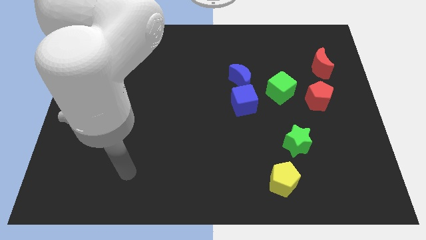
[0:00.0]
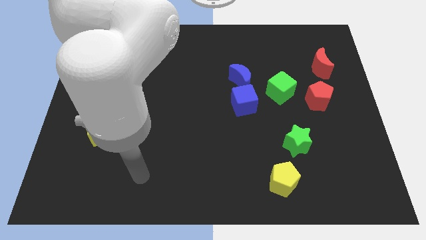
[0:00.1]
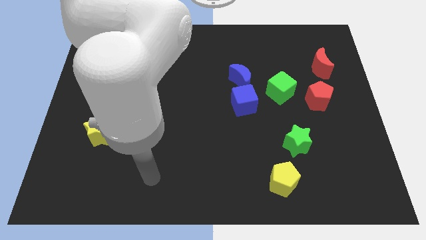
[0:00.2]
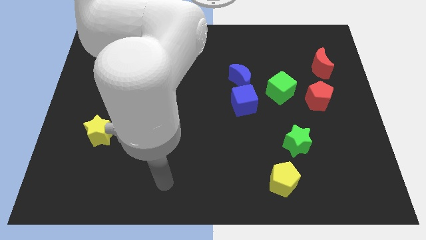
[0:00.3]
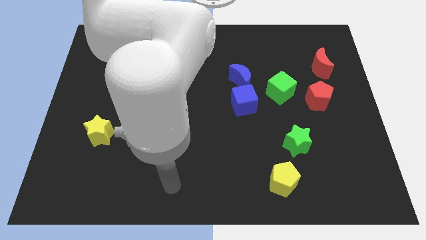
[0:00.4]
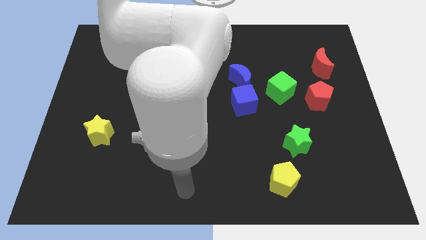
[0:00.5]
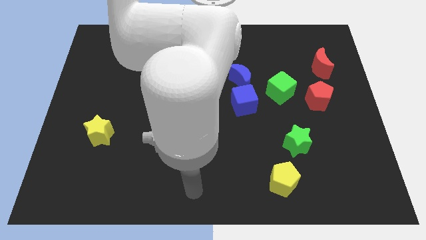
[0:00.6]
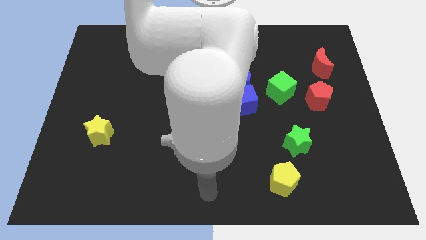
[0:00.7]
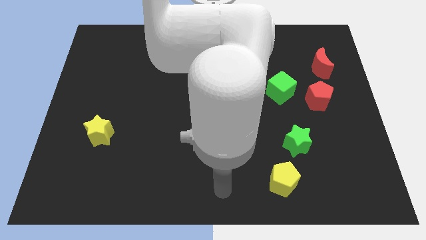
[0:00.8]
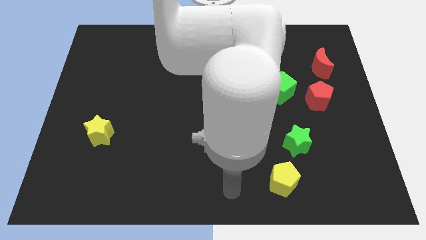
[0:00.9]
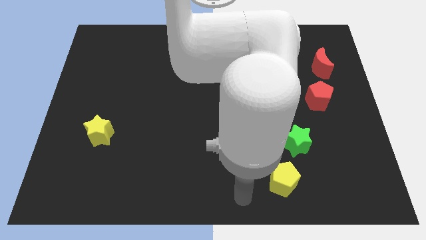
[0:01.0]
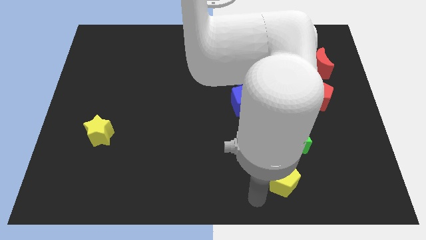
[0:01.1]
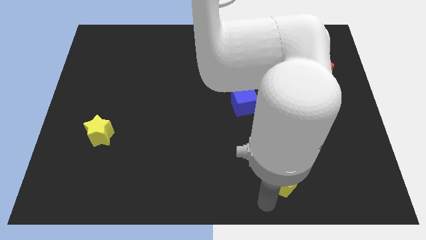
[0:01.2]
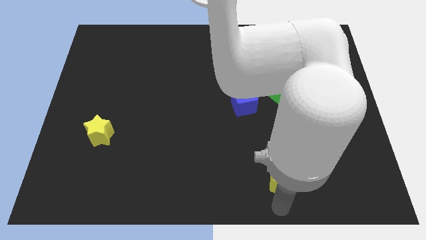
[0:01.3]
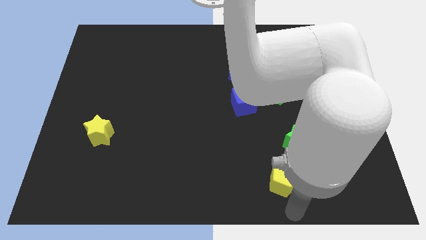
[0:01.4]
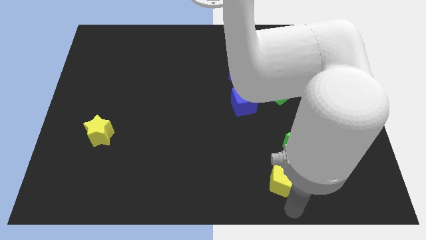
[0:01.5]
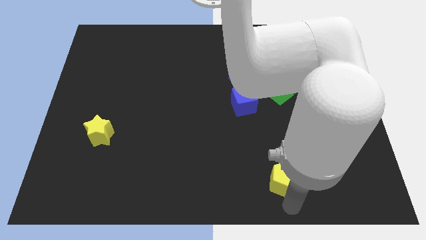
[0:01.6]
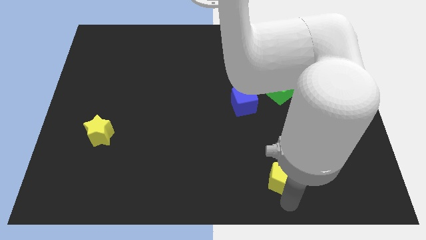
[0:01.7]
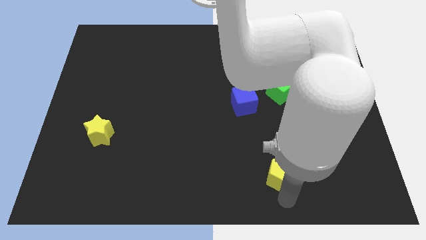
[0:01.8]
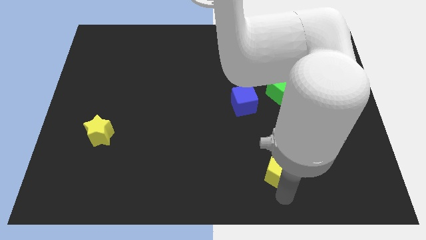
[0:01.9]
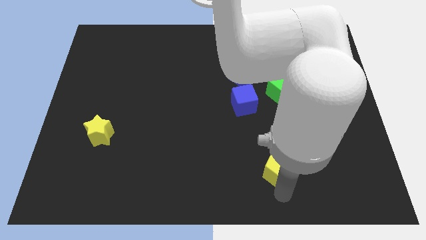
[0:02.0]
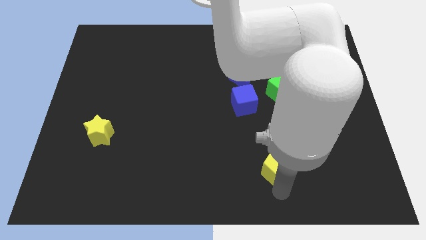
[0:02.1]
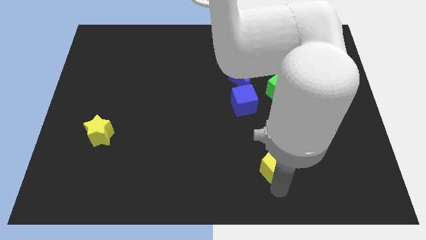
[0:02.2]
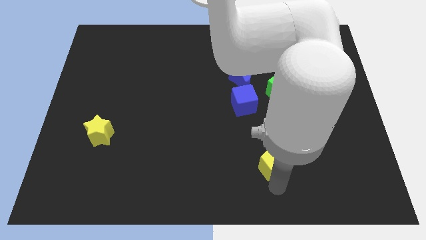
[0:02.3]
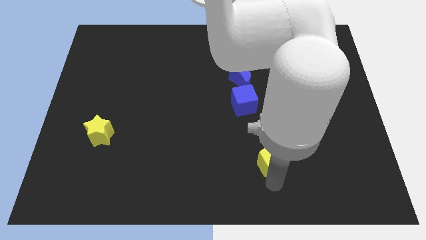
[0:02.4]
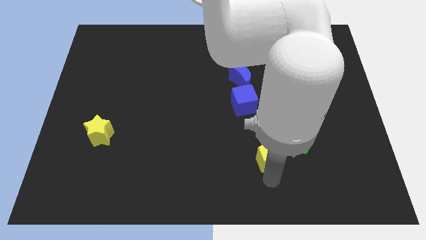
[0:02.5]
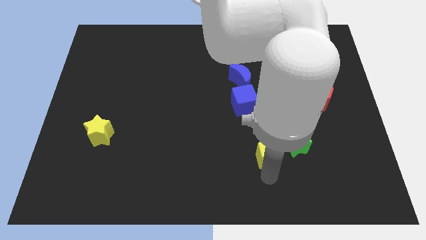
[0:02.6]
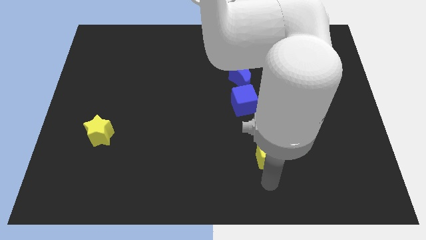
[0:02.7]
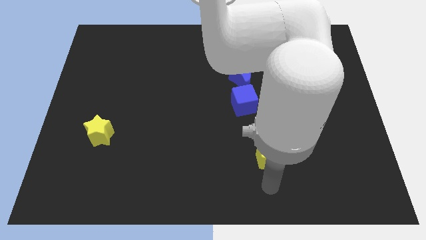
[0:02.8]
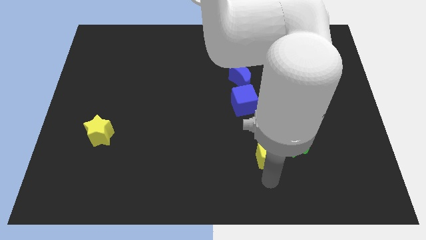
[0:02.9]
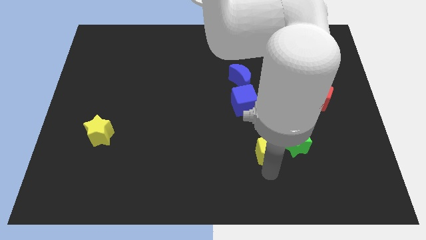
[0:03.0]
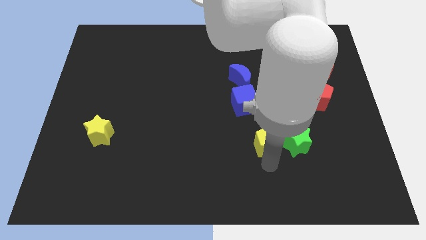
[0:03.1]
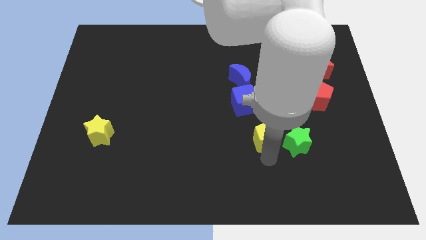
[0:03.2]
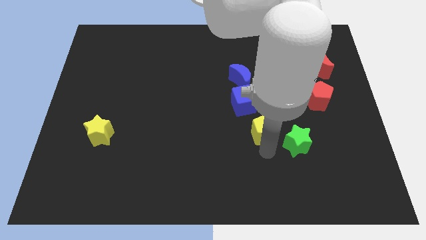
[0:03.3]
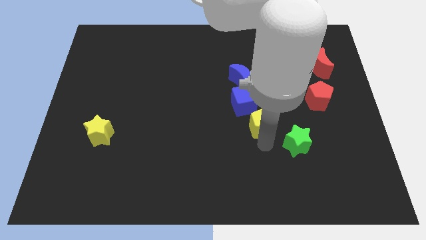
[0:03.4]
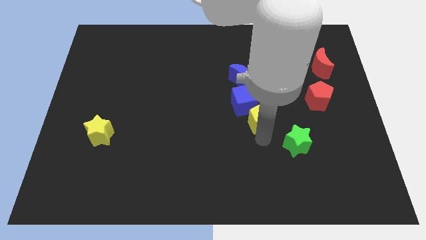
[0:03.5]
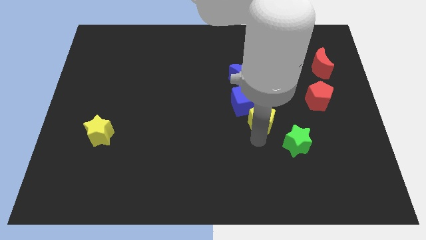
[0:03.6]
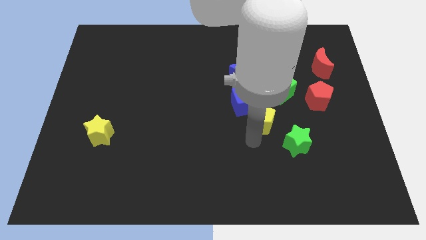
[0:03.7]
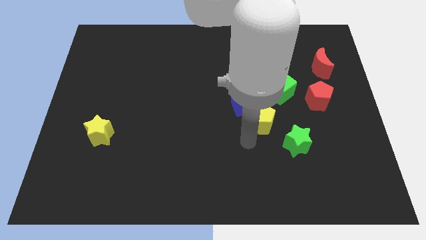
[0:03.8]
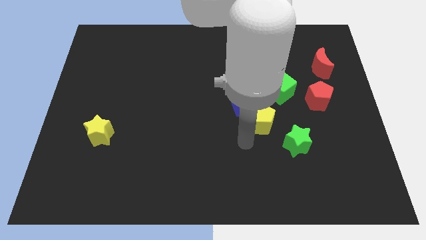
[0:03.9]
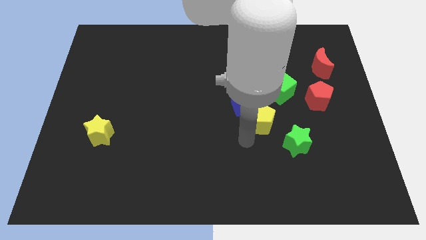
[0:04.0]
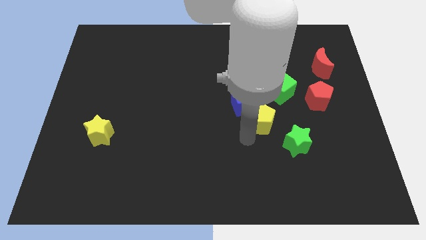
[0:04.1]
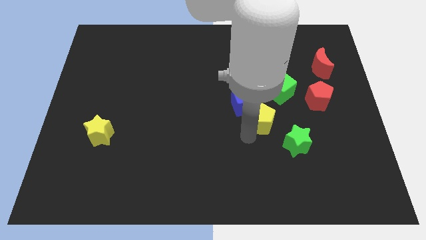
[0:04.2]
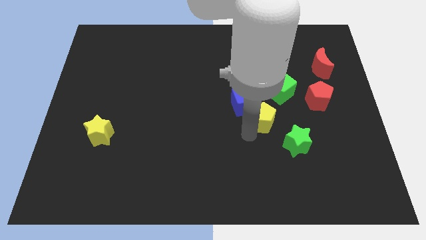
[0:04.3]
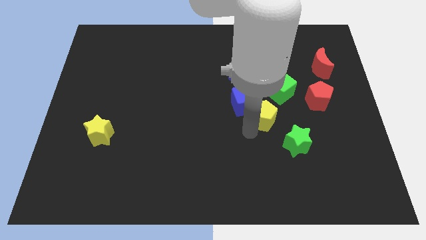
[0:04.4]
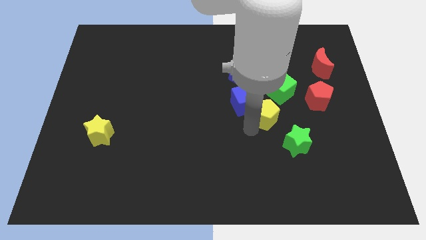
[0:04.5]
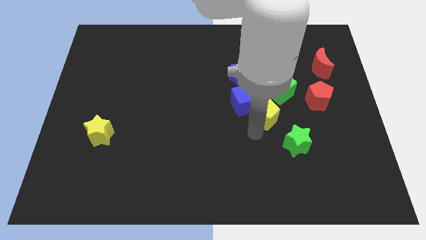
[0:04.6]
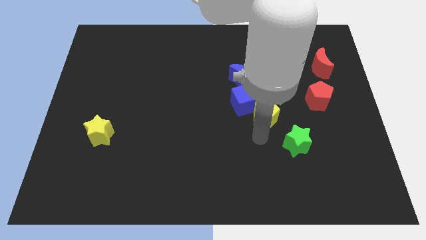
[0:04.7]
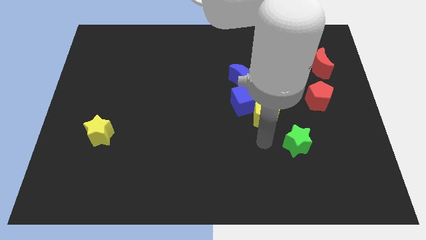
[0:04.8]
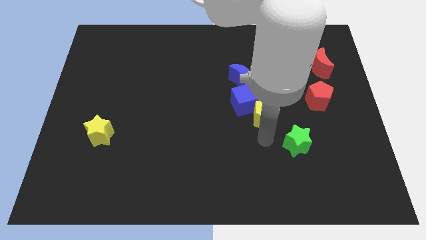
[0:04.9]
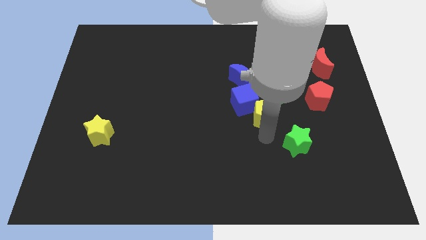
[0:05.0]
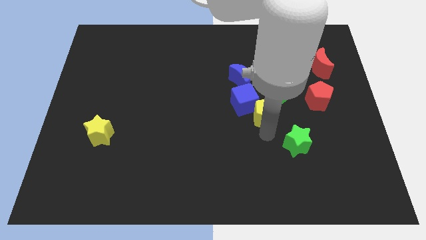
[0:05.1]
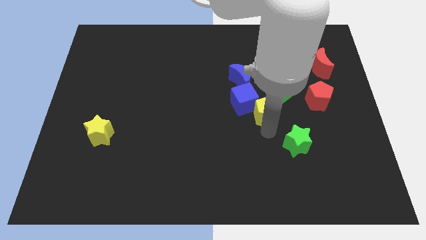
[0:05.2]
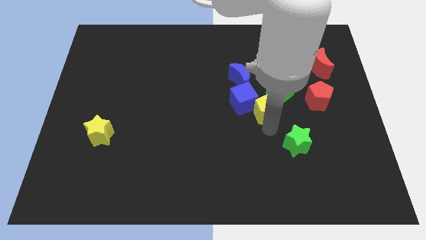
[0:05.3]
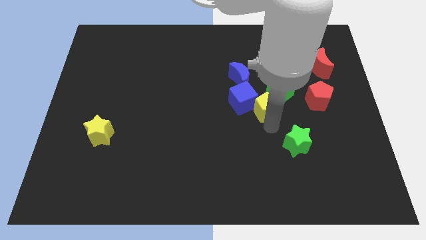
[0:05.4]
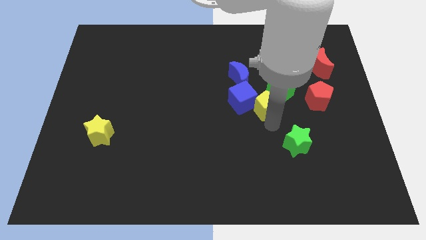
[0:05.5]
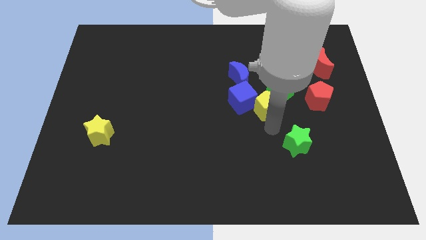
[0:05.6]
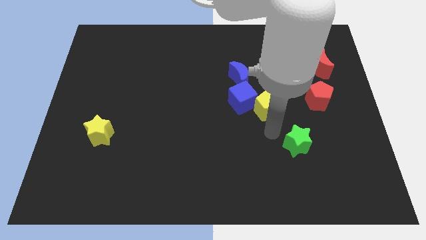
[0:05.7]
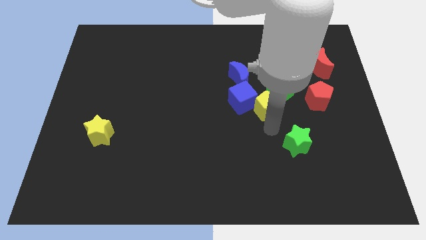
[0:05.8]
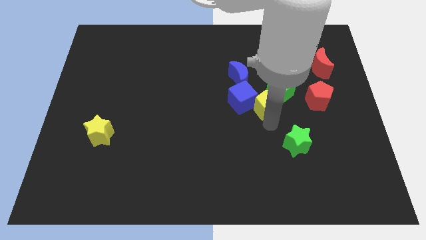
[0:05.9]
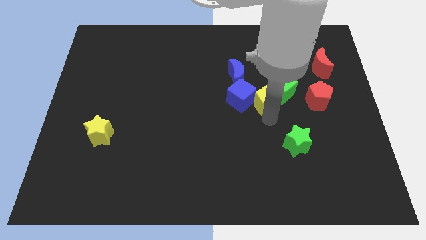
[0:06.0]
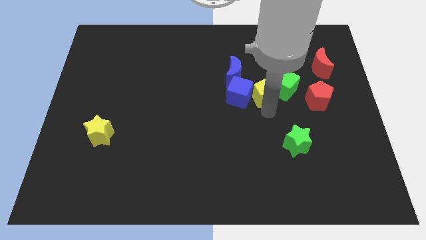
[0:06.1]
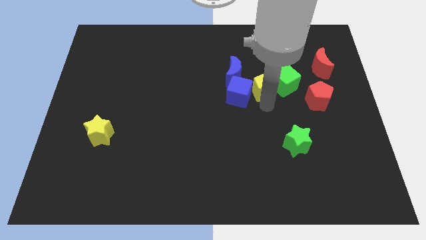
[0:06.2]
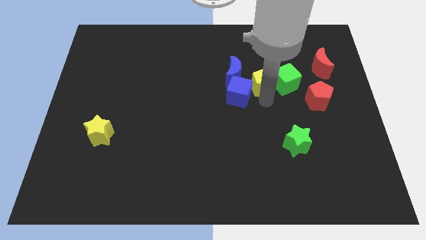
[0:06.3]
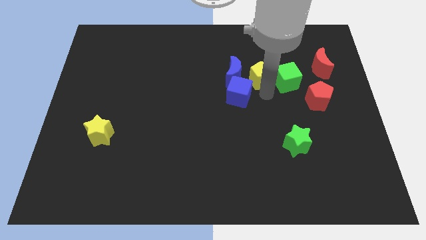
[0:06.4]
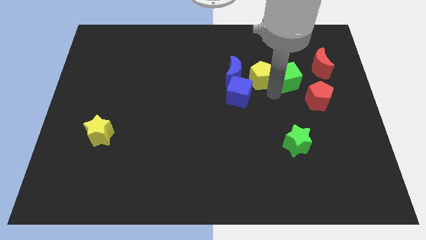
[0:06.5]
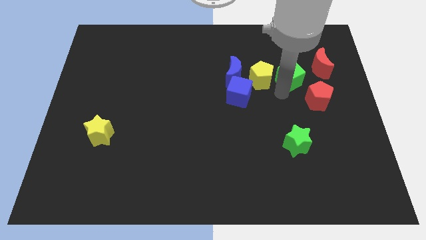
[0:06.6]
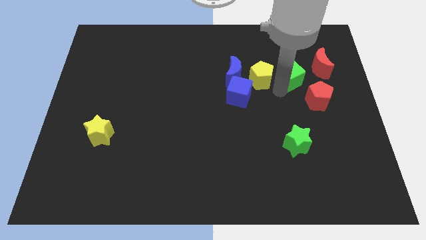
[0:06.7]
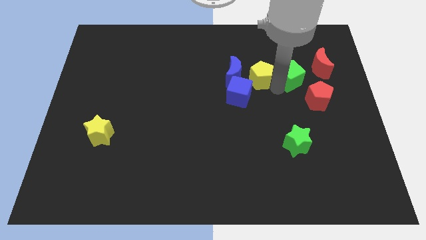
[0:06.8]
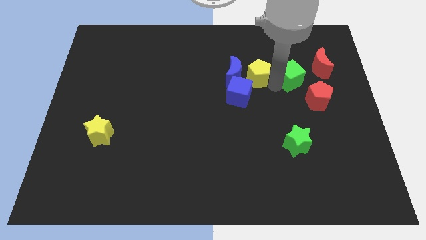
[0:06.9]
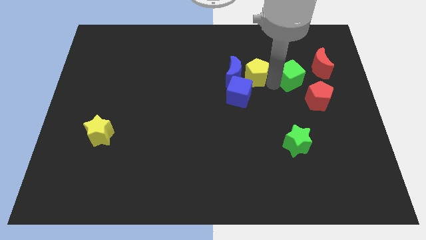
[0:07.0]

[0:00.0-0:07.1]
put the yellow pentagon to the top of the blue cube

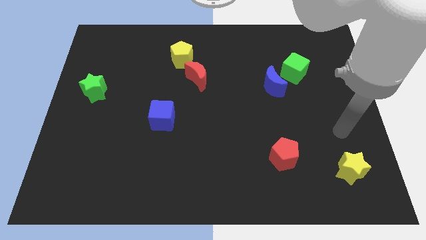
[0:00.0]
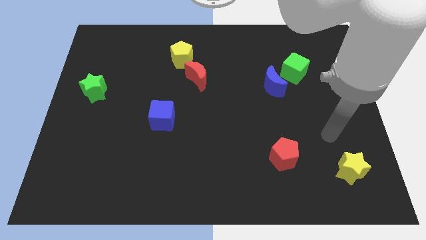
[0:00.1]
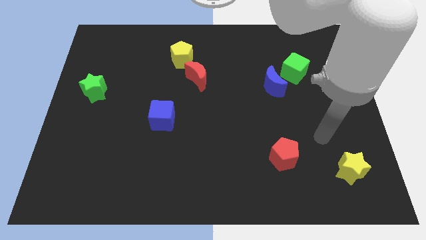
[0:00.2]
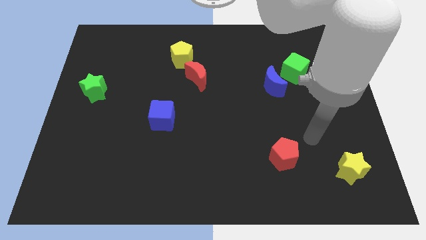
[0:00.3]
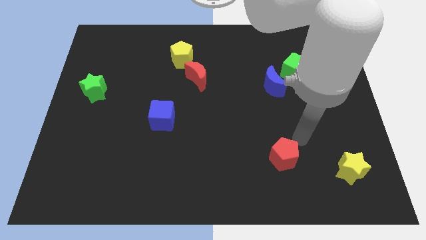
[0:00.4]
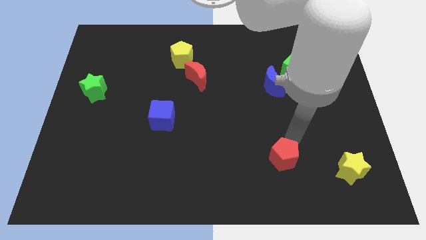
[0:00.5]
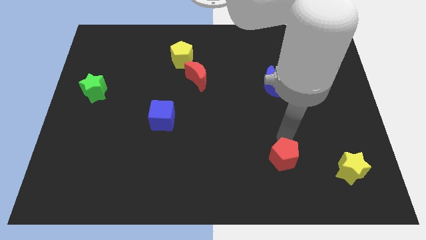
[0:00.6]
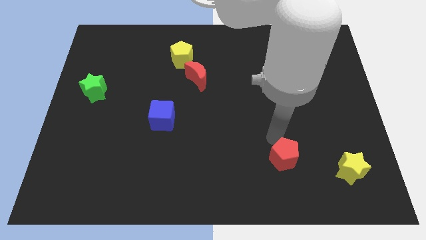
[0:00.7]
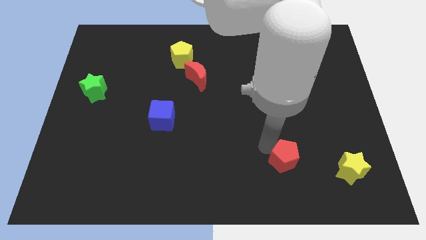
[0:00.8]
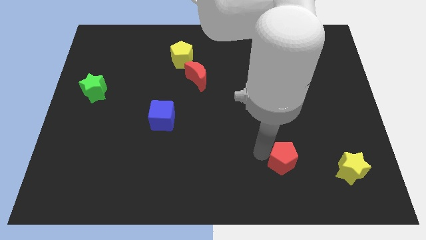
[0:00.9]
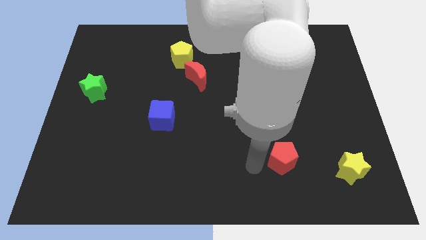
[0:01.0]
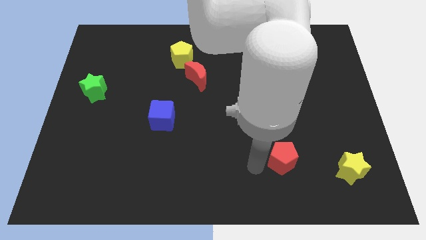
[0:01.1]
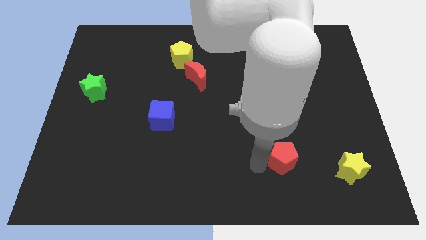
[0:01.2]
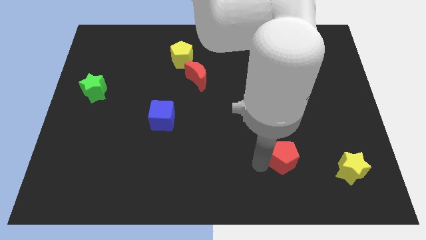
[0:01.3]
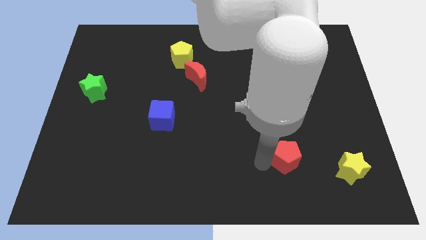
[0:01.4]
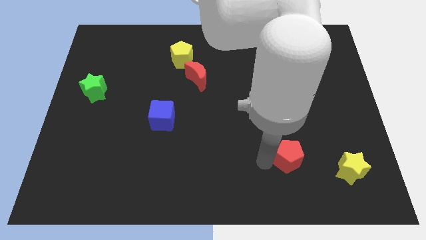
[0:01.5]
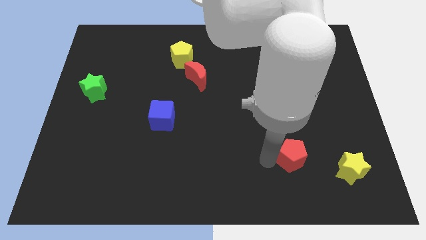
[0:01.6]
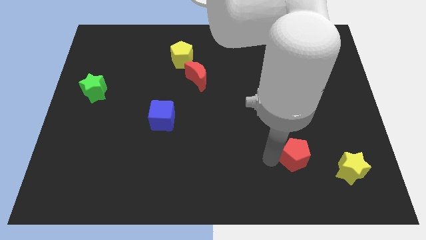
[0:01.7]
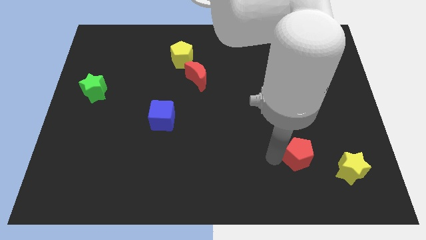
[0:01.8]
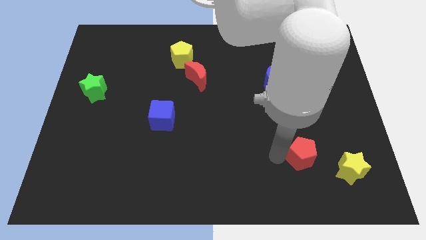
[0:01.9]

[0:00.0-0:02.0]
put the red pentagon diagonally up and to the left of the yellow star
